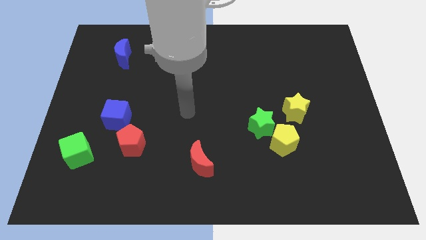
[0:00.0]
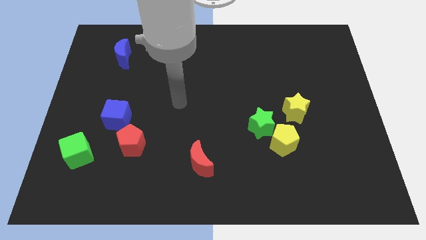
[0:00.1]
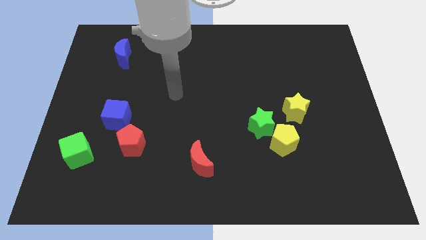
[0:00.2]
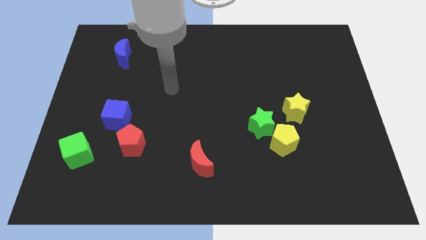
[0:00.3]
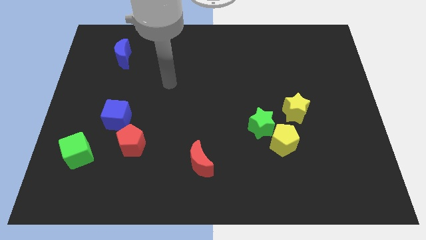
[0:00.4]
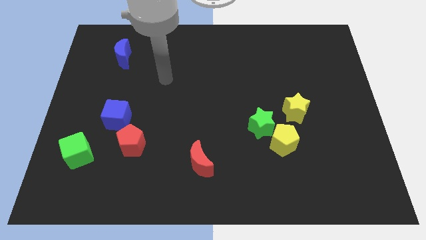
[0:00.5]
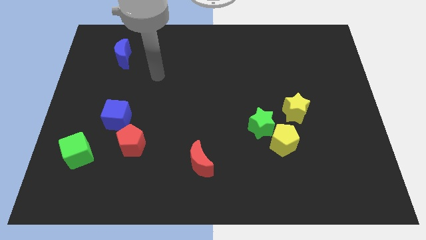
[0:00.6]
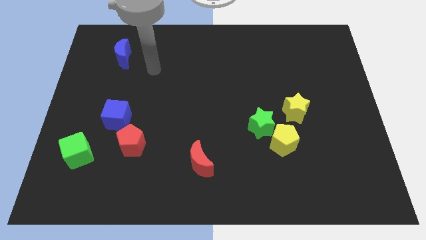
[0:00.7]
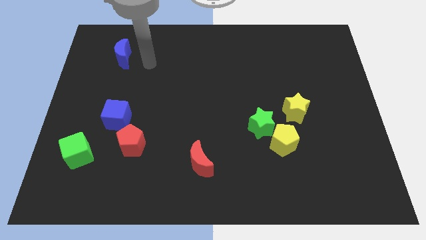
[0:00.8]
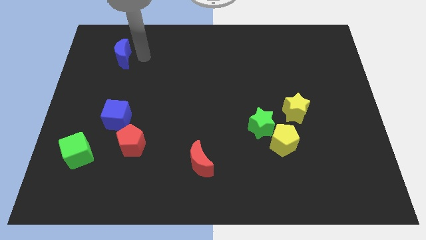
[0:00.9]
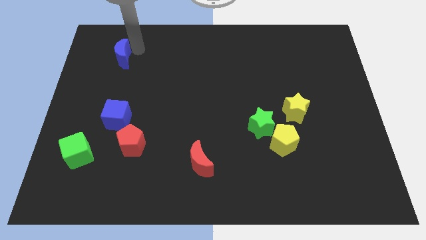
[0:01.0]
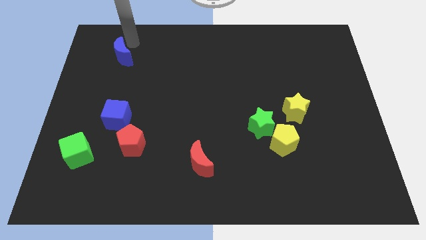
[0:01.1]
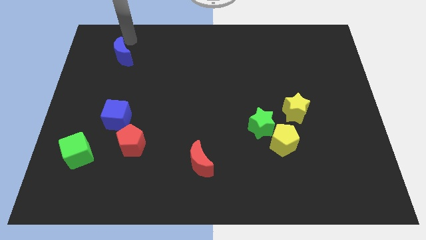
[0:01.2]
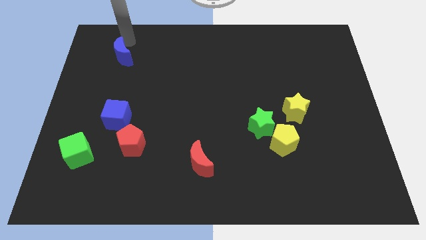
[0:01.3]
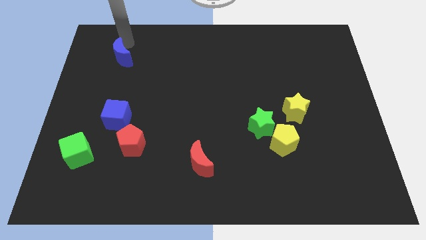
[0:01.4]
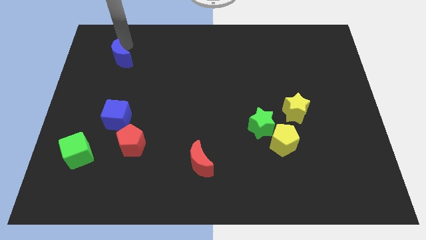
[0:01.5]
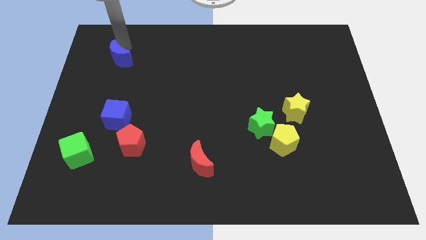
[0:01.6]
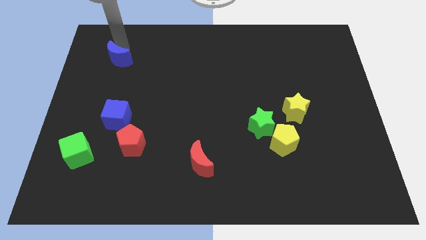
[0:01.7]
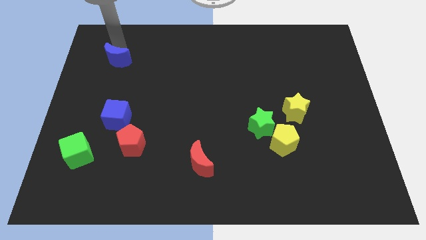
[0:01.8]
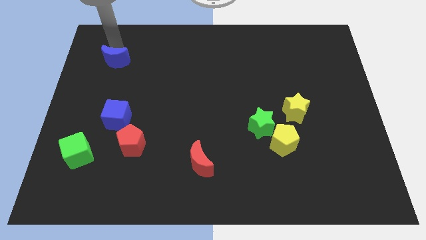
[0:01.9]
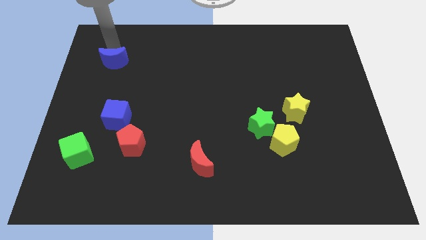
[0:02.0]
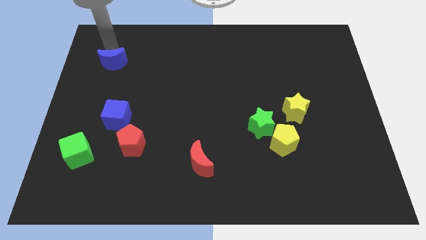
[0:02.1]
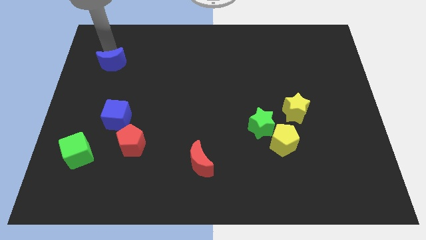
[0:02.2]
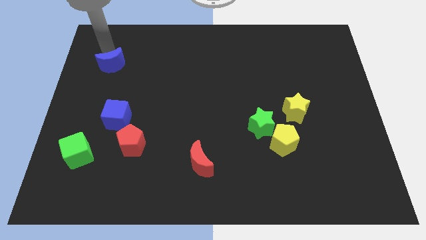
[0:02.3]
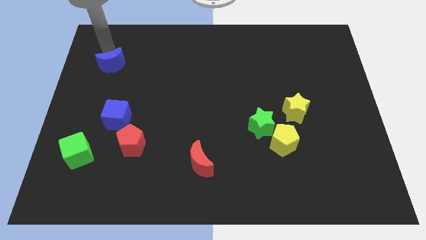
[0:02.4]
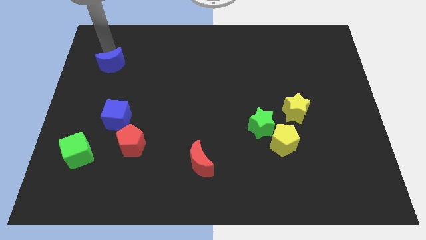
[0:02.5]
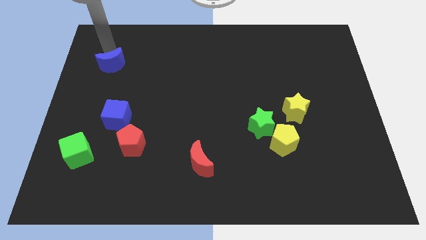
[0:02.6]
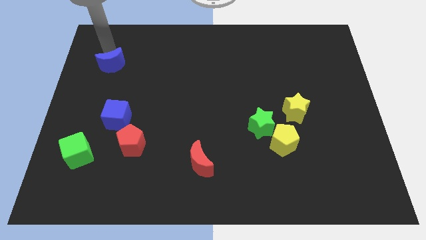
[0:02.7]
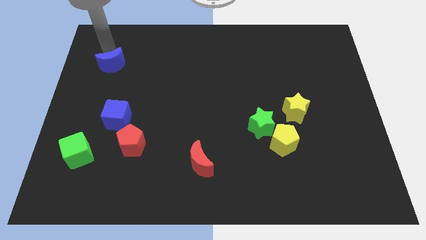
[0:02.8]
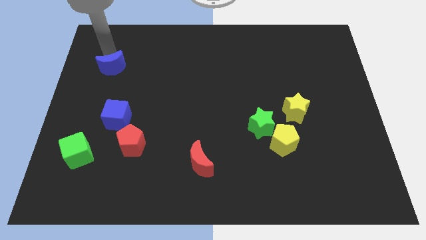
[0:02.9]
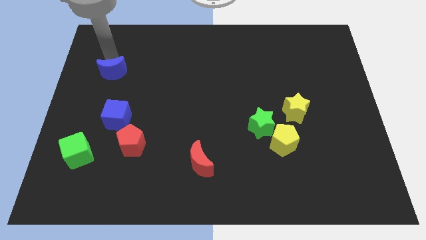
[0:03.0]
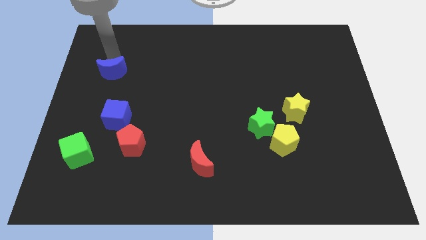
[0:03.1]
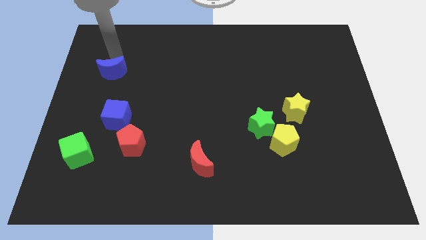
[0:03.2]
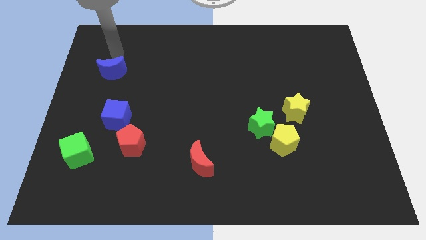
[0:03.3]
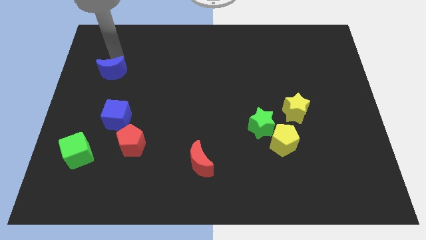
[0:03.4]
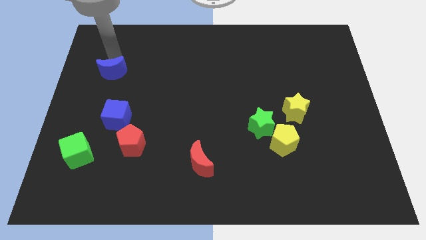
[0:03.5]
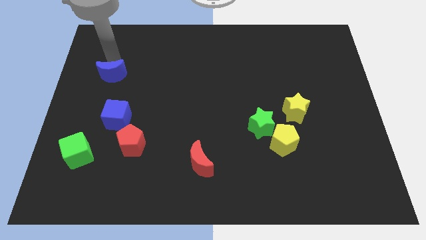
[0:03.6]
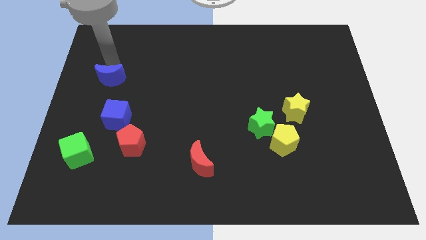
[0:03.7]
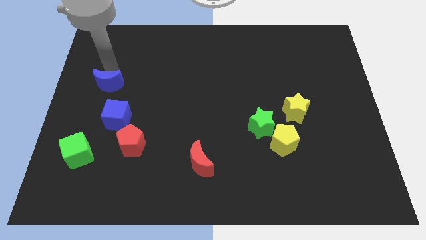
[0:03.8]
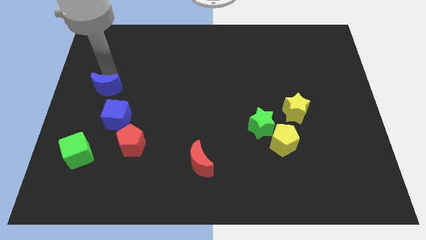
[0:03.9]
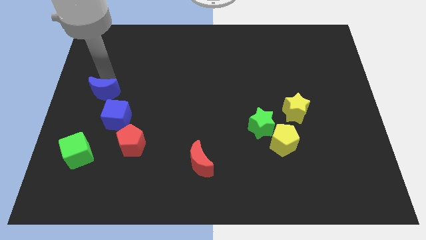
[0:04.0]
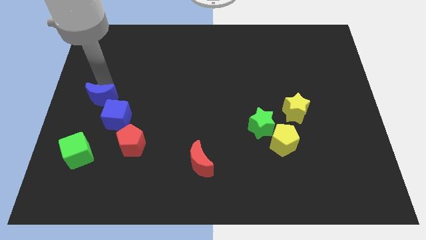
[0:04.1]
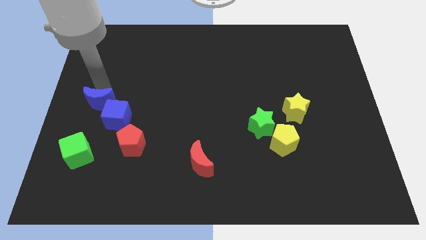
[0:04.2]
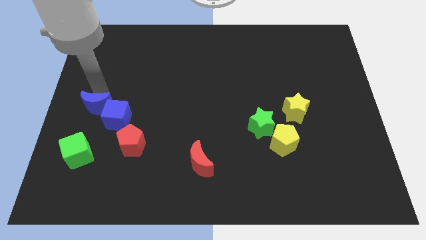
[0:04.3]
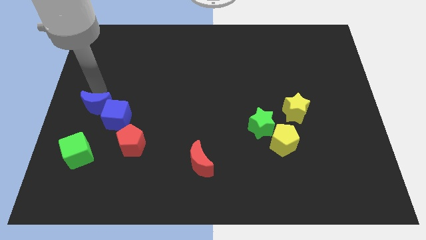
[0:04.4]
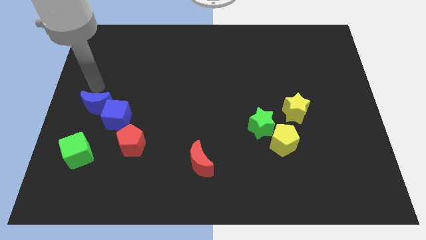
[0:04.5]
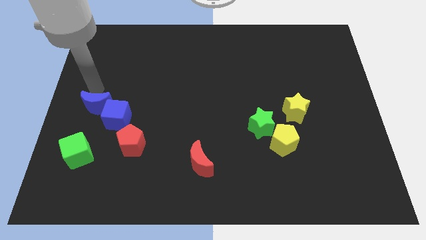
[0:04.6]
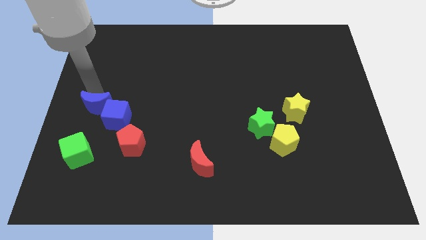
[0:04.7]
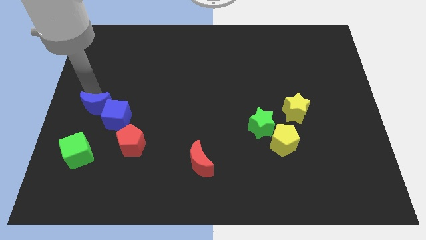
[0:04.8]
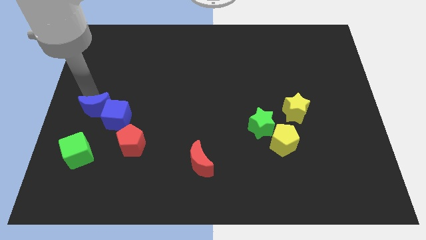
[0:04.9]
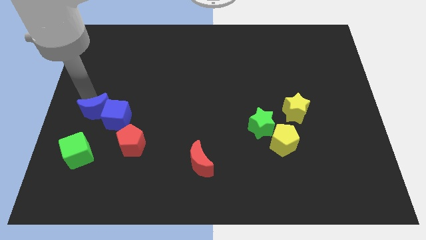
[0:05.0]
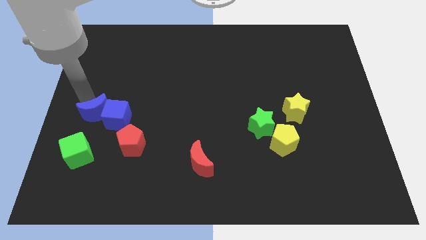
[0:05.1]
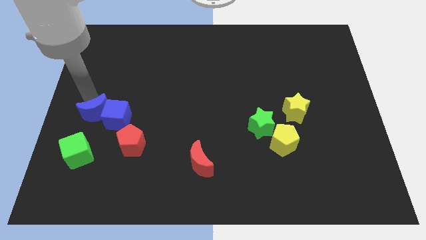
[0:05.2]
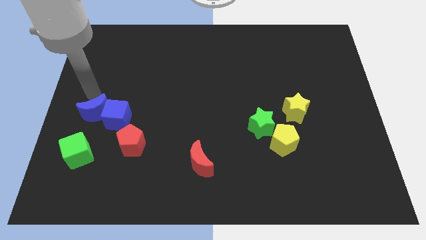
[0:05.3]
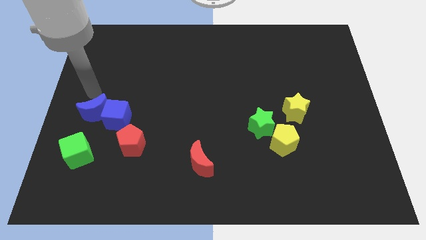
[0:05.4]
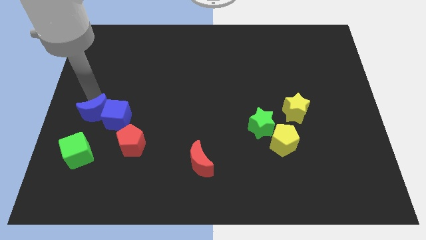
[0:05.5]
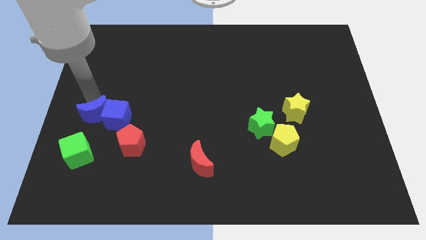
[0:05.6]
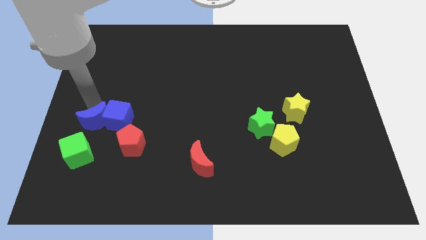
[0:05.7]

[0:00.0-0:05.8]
push the blue moon down

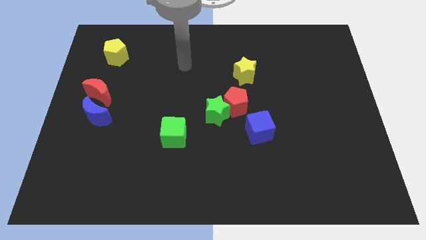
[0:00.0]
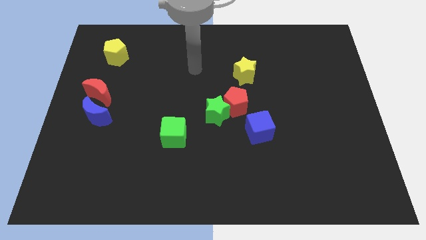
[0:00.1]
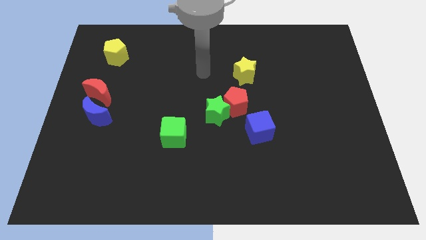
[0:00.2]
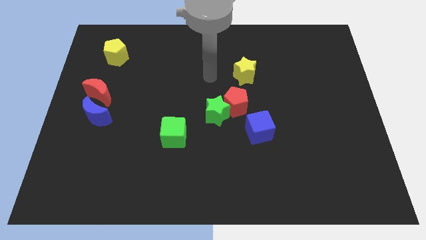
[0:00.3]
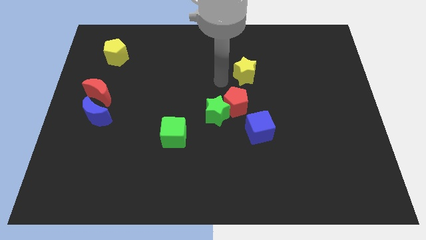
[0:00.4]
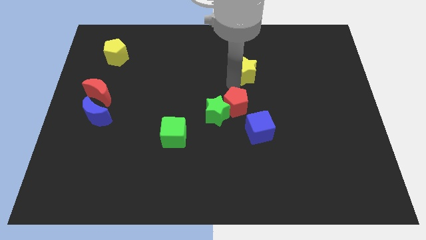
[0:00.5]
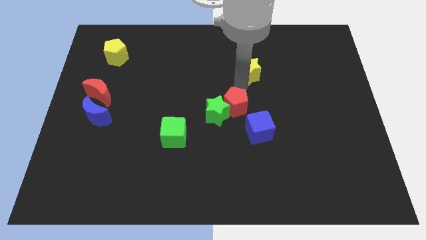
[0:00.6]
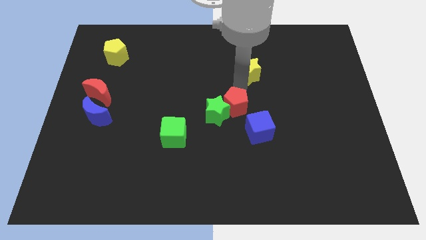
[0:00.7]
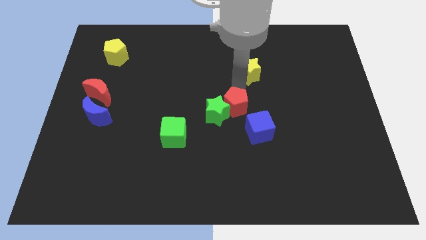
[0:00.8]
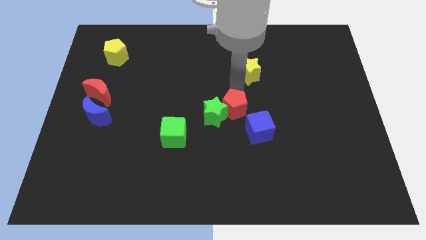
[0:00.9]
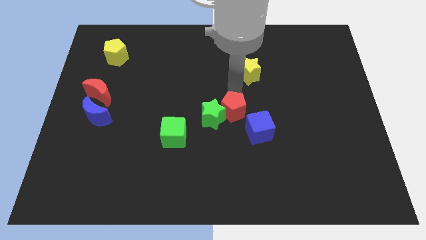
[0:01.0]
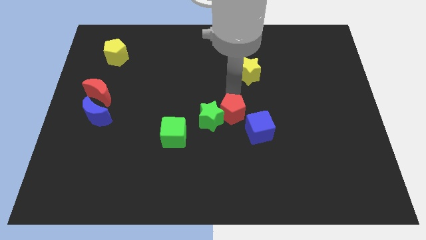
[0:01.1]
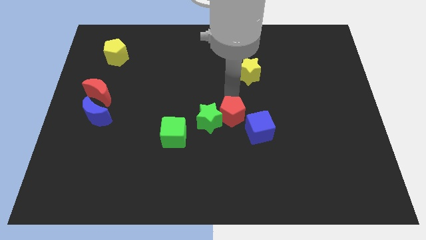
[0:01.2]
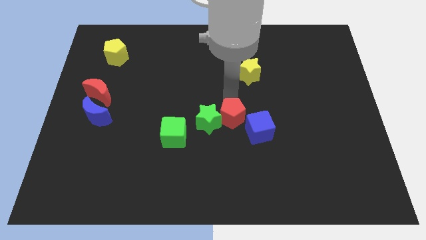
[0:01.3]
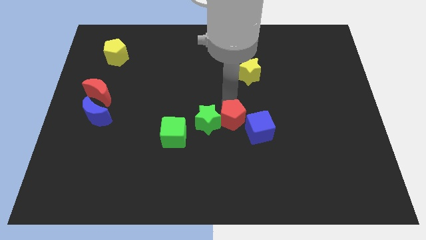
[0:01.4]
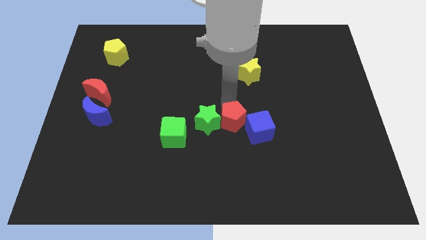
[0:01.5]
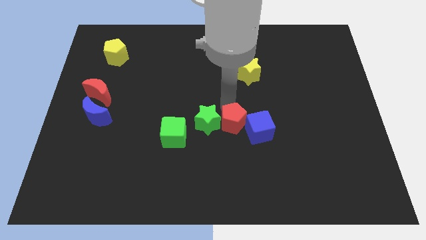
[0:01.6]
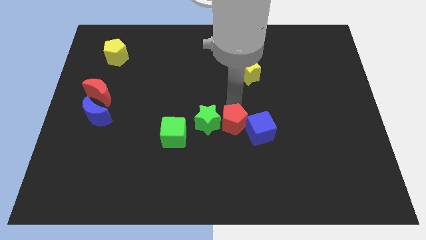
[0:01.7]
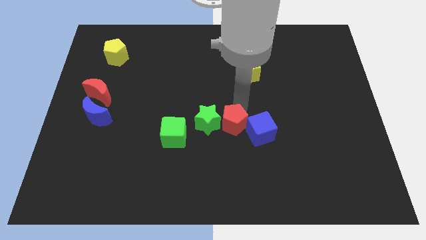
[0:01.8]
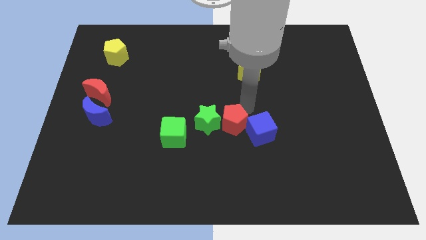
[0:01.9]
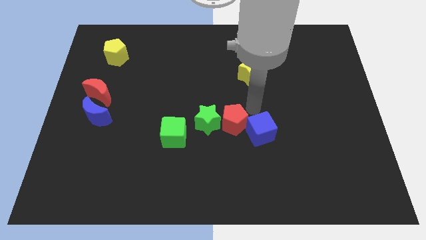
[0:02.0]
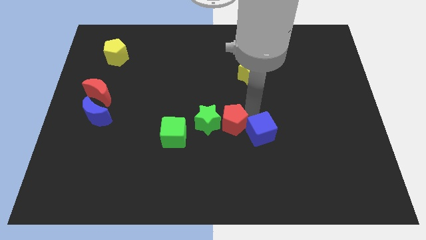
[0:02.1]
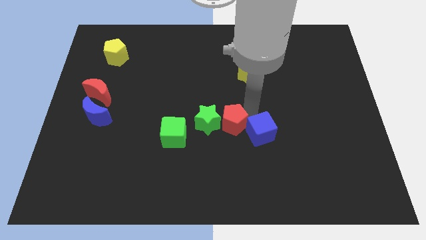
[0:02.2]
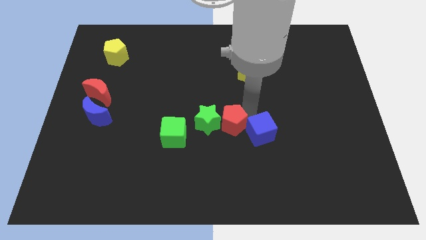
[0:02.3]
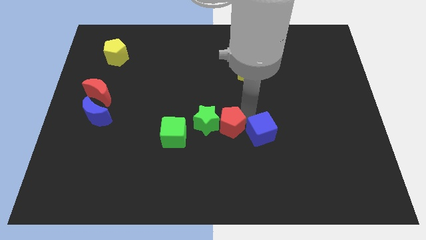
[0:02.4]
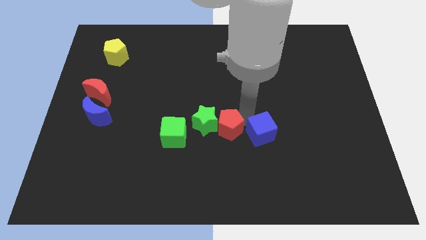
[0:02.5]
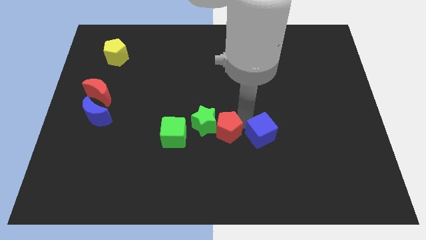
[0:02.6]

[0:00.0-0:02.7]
slightly slide the red pentagon downwards
